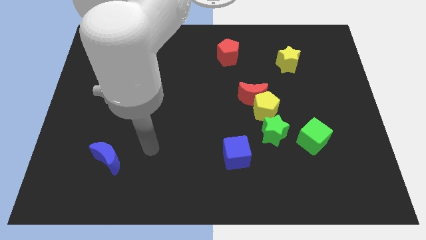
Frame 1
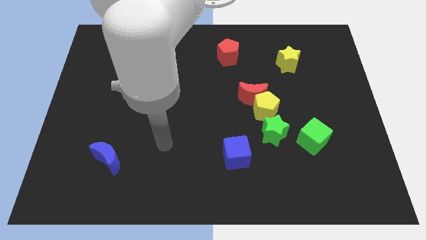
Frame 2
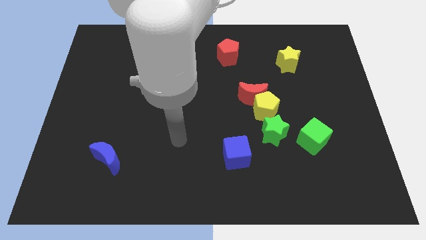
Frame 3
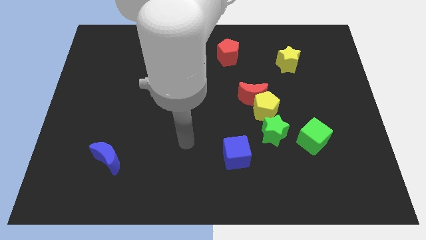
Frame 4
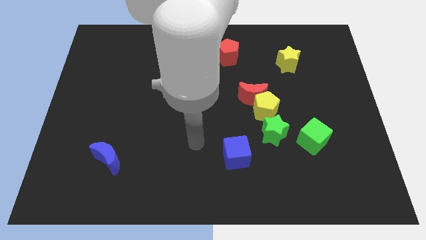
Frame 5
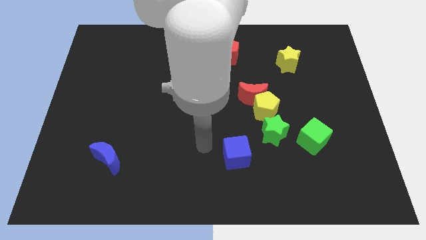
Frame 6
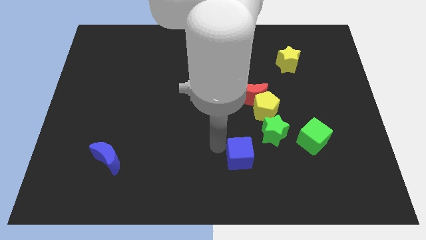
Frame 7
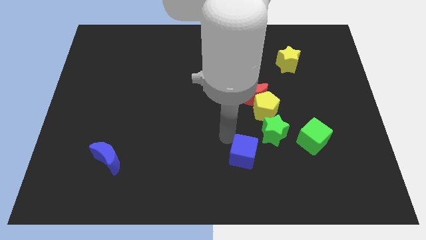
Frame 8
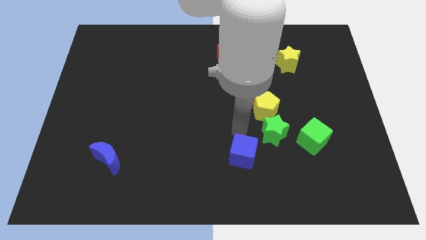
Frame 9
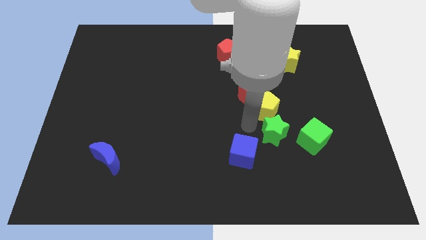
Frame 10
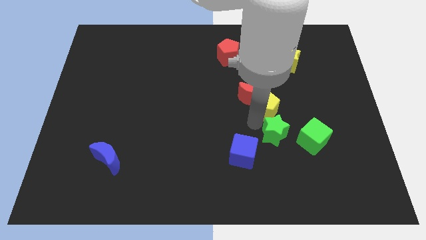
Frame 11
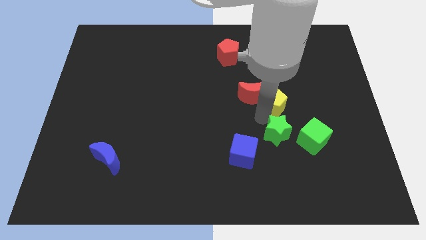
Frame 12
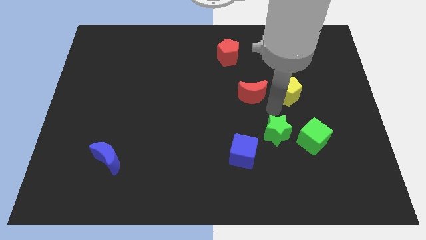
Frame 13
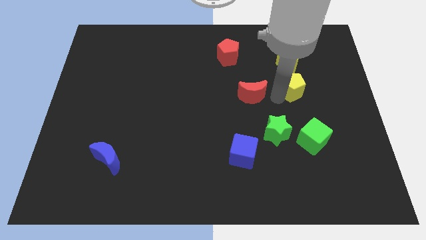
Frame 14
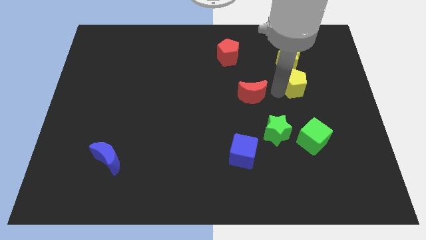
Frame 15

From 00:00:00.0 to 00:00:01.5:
move the red moon away from the yellow pentagon

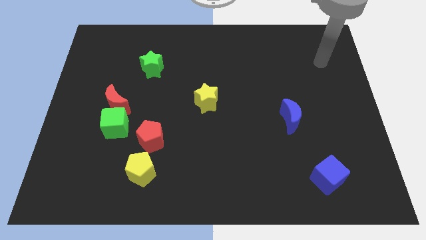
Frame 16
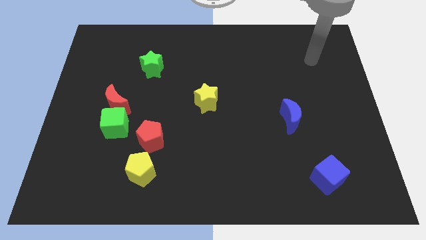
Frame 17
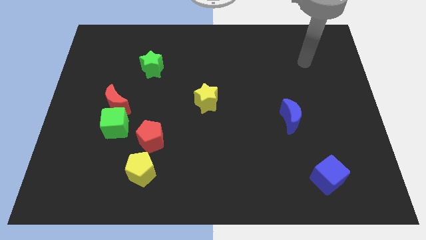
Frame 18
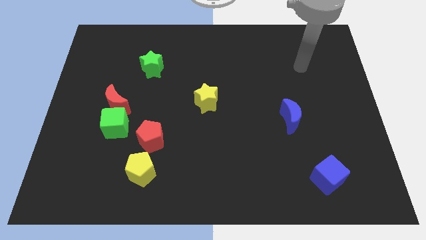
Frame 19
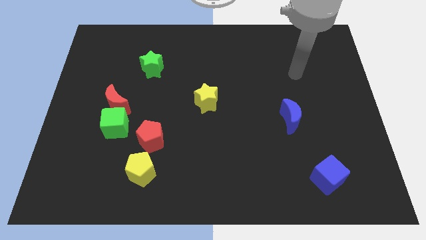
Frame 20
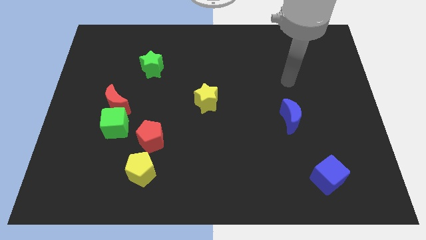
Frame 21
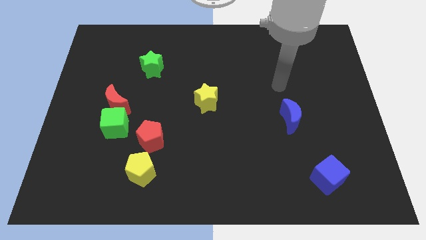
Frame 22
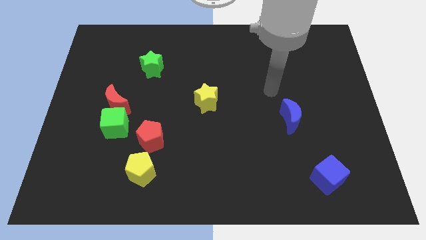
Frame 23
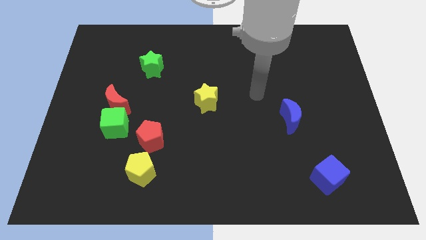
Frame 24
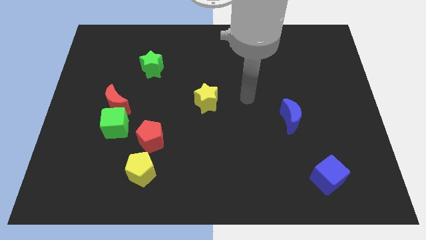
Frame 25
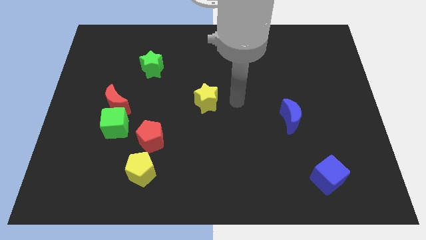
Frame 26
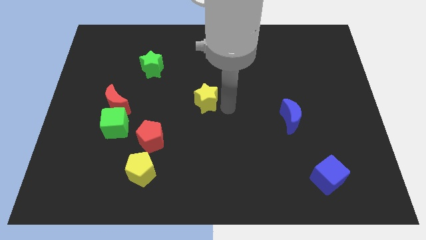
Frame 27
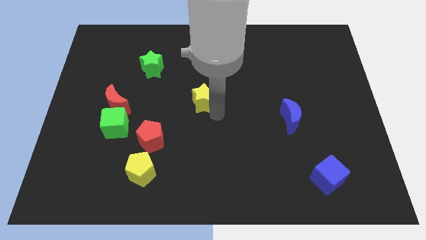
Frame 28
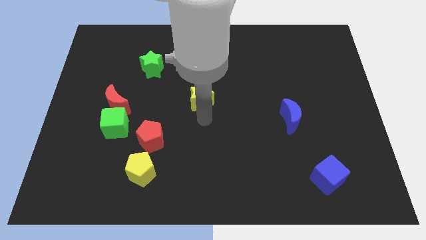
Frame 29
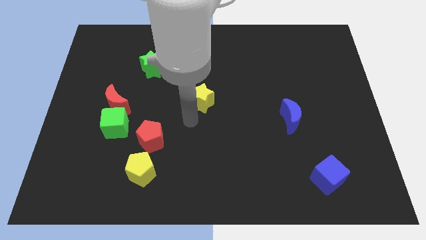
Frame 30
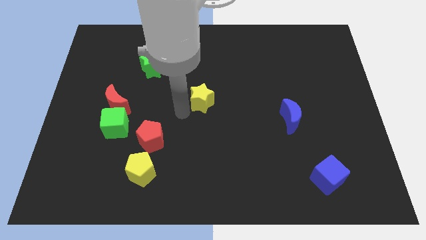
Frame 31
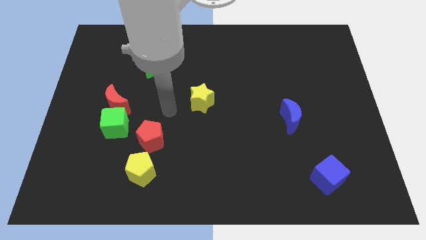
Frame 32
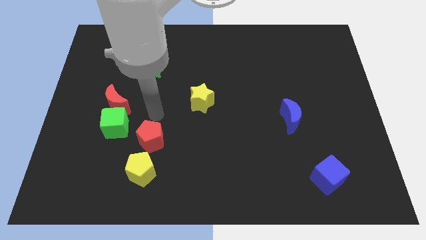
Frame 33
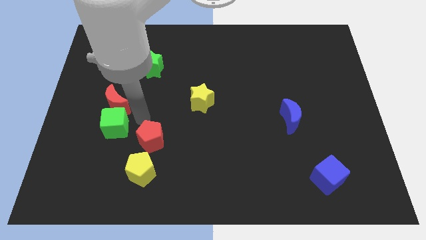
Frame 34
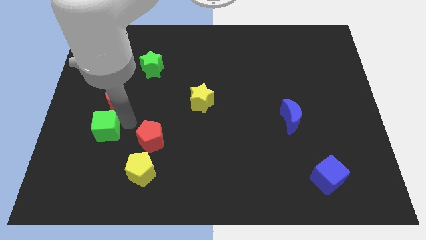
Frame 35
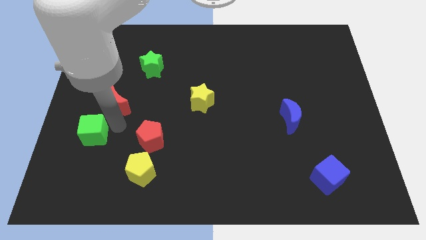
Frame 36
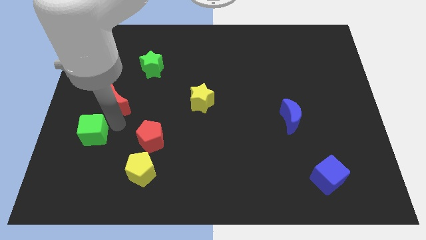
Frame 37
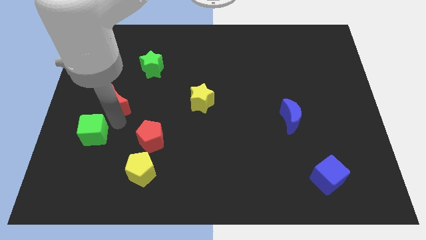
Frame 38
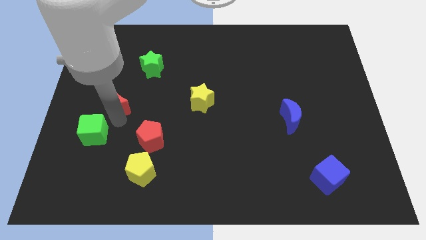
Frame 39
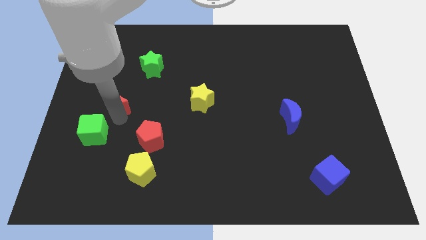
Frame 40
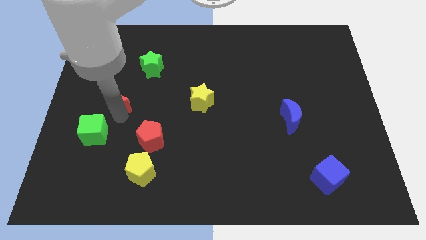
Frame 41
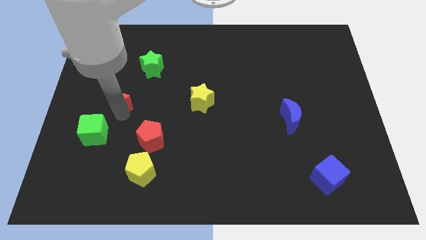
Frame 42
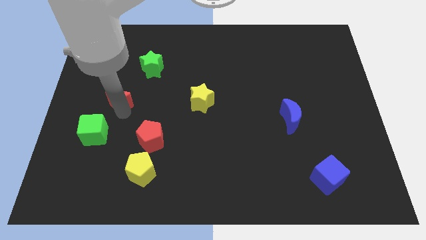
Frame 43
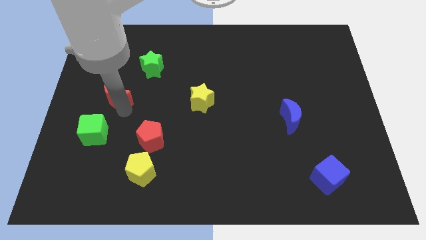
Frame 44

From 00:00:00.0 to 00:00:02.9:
move the red moon away from the green cube

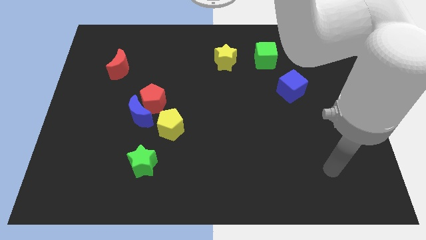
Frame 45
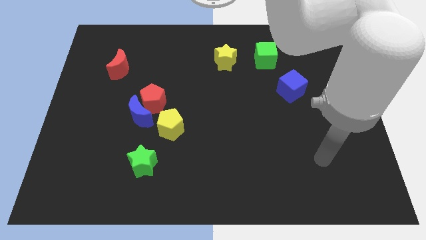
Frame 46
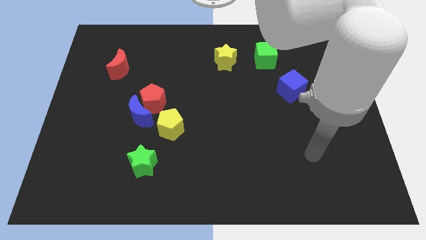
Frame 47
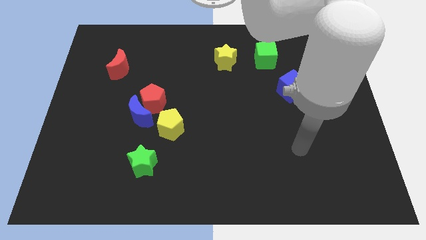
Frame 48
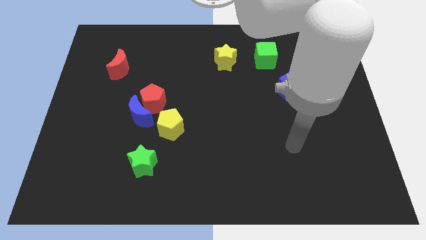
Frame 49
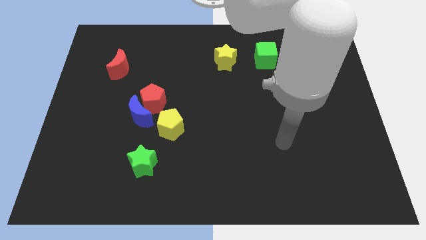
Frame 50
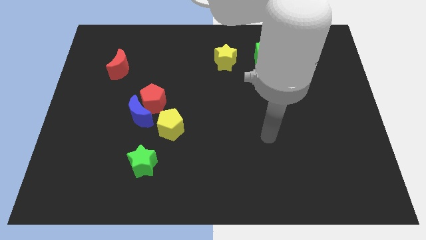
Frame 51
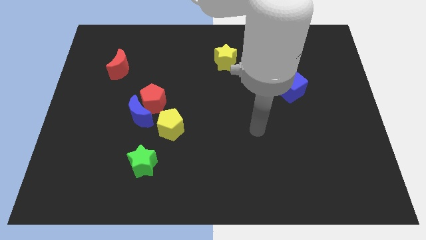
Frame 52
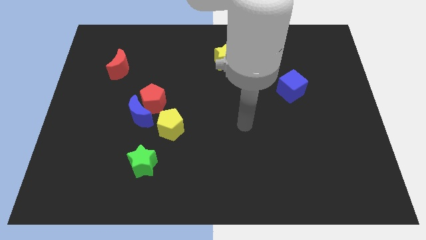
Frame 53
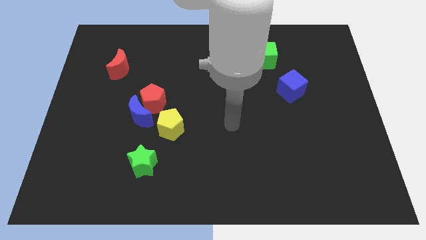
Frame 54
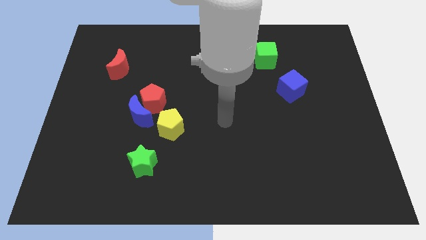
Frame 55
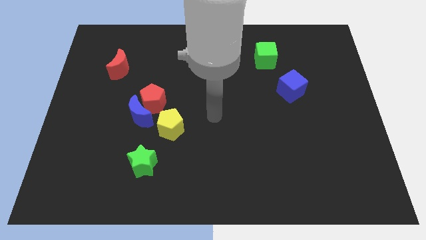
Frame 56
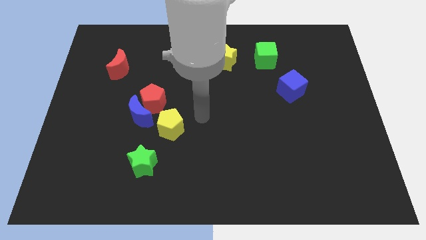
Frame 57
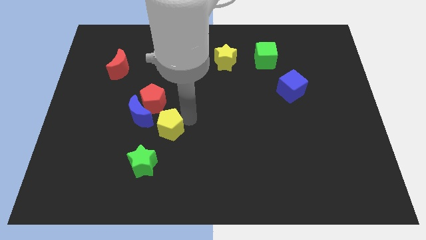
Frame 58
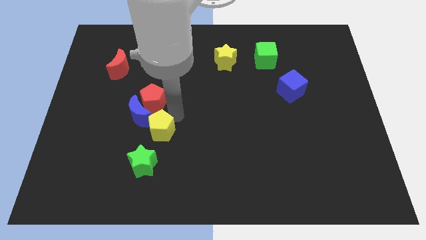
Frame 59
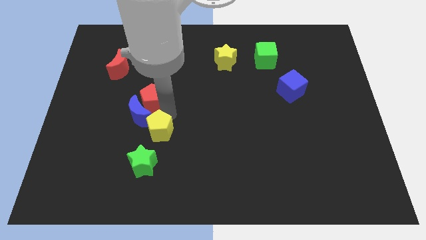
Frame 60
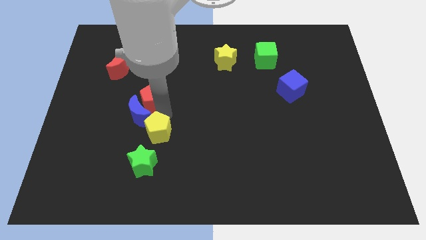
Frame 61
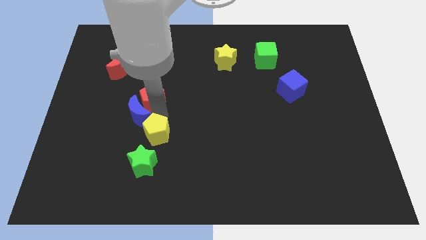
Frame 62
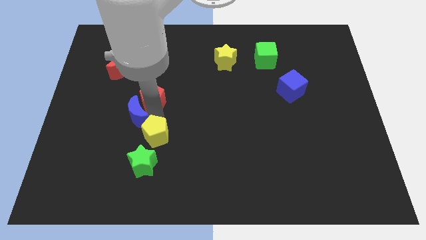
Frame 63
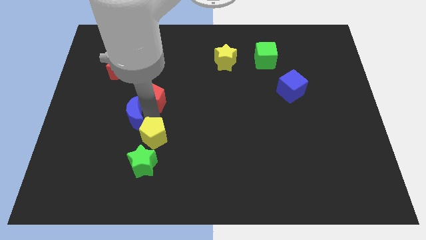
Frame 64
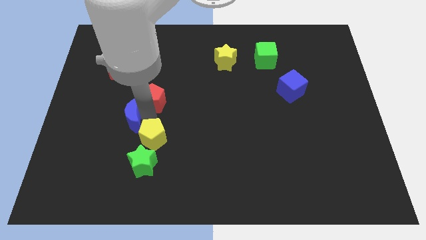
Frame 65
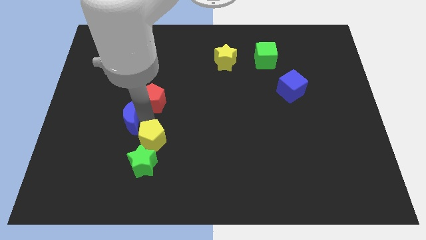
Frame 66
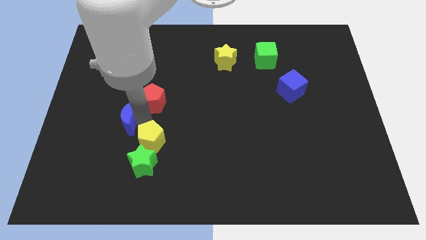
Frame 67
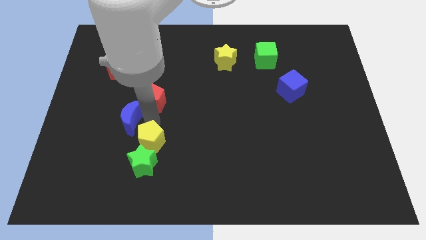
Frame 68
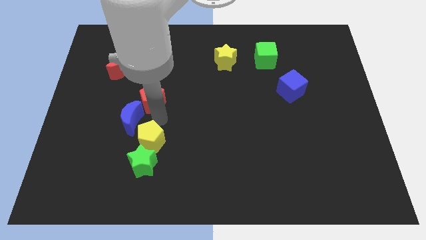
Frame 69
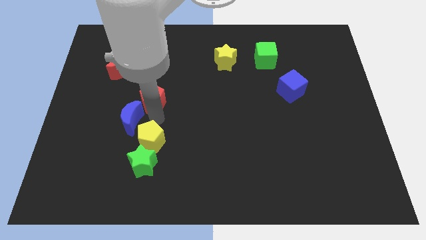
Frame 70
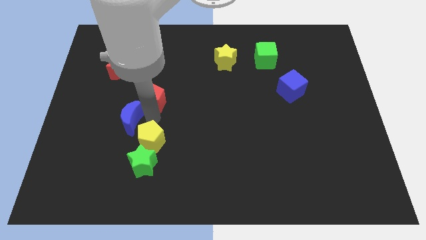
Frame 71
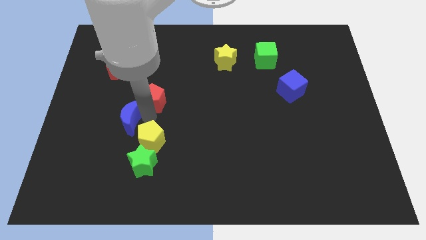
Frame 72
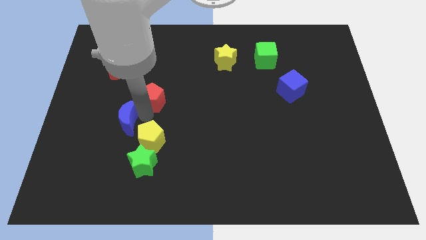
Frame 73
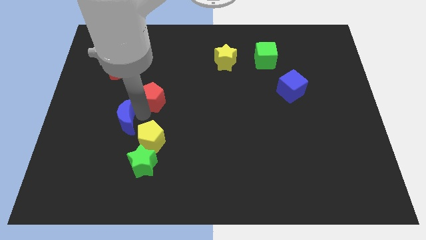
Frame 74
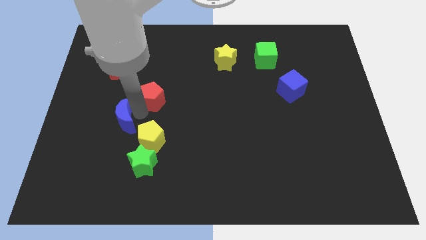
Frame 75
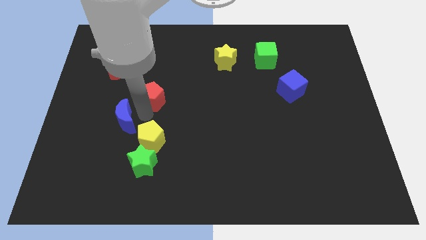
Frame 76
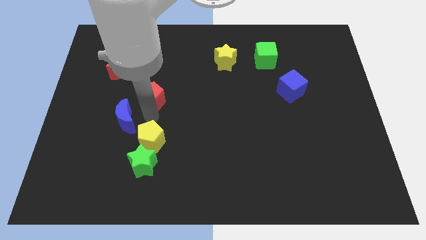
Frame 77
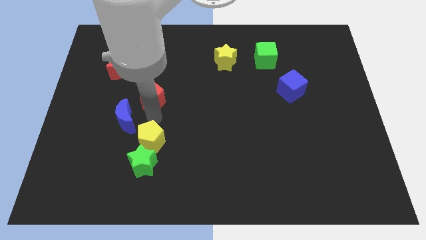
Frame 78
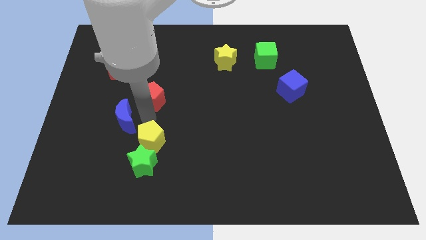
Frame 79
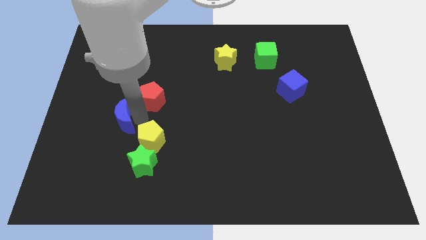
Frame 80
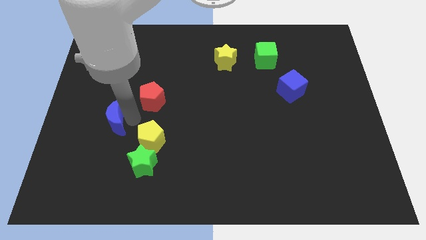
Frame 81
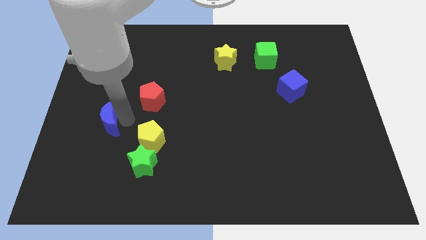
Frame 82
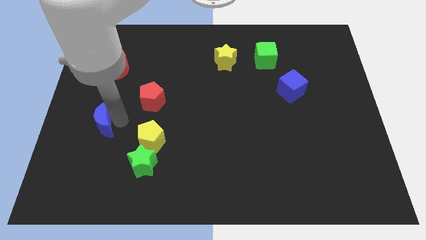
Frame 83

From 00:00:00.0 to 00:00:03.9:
separate the blue moon from the red pentagon and yellow pentagon

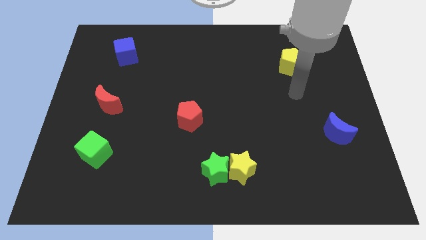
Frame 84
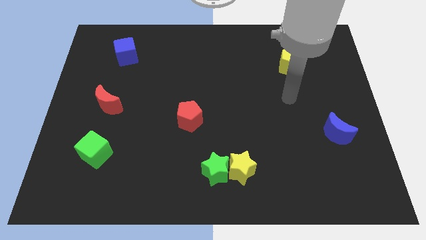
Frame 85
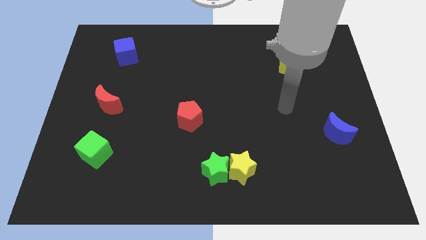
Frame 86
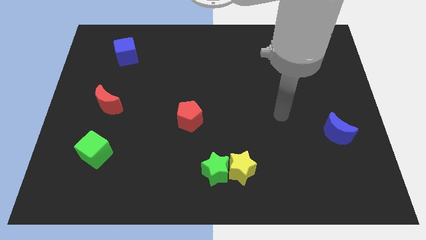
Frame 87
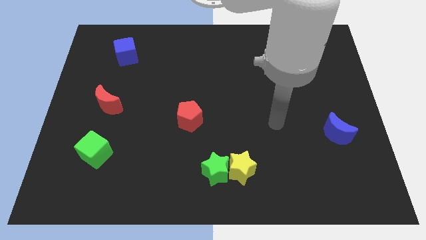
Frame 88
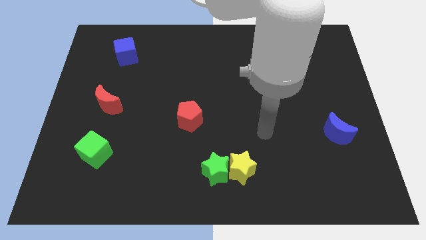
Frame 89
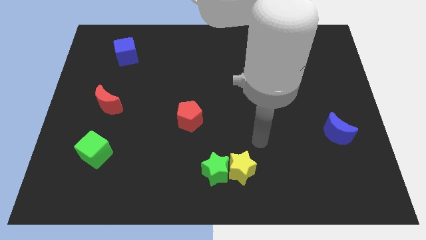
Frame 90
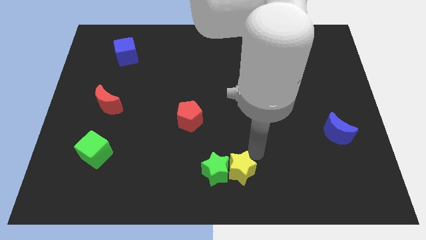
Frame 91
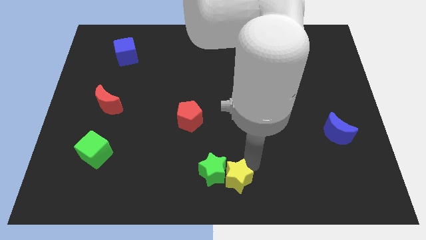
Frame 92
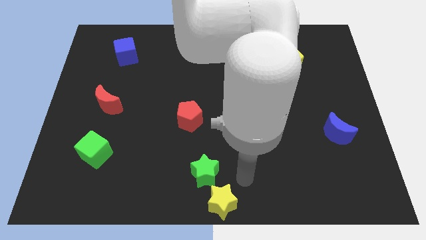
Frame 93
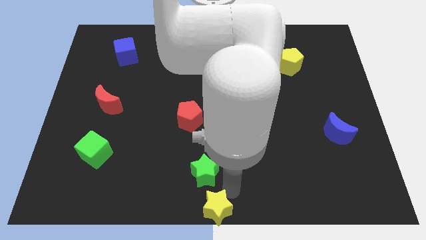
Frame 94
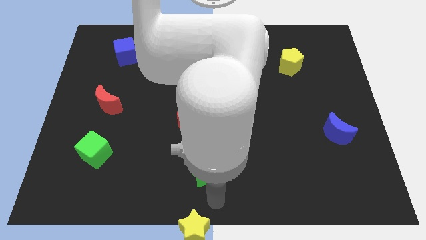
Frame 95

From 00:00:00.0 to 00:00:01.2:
separate the green star from the yellow star
